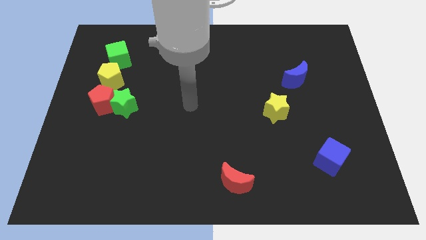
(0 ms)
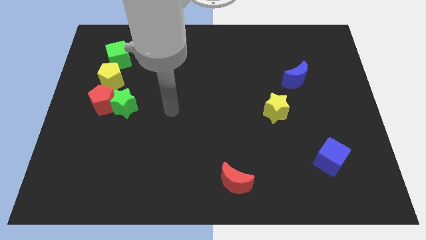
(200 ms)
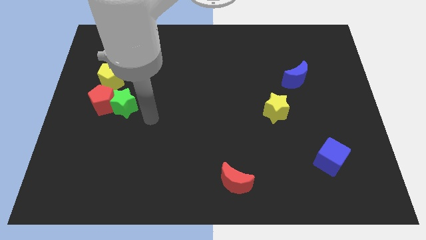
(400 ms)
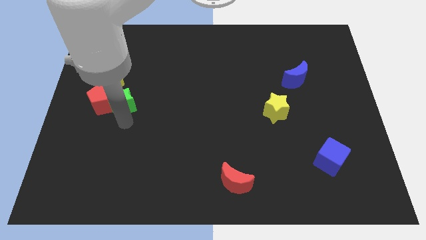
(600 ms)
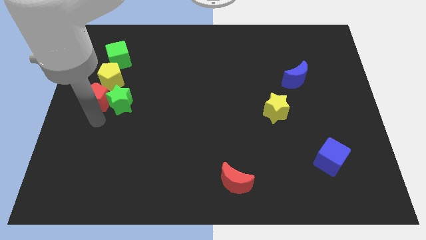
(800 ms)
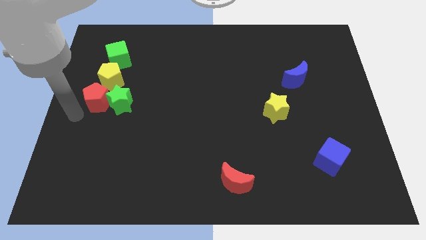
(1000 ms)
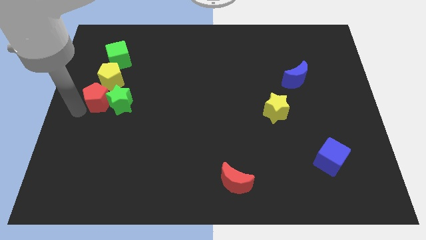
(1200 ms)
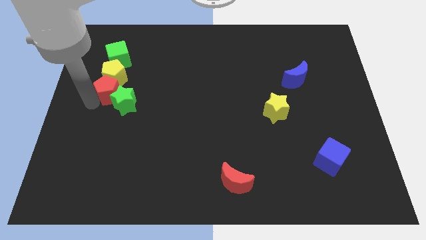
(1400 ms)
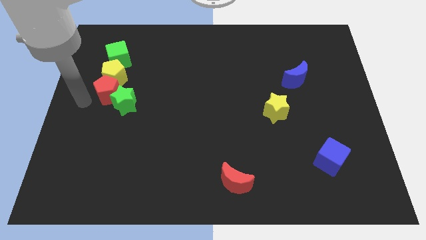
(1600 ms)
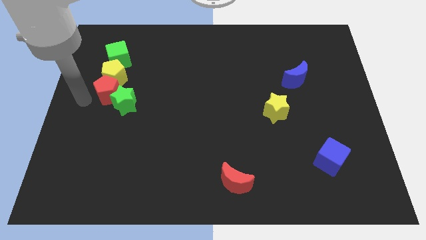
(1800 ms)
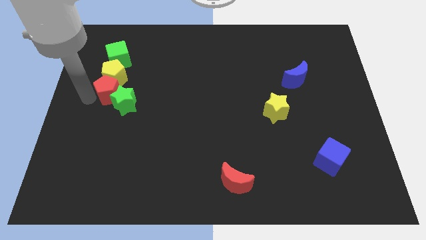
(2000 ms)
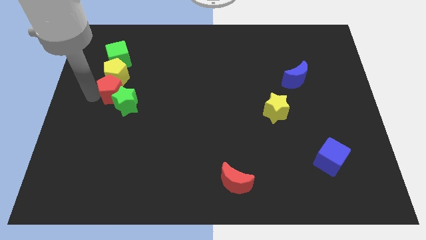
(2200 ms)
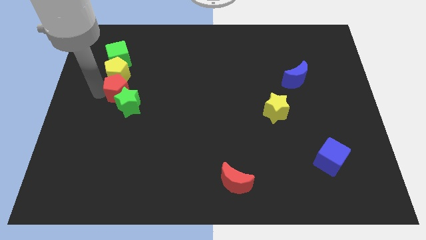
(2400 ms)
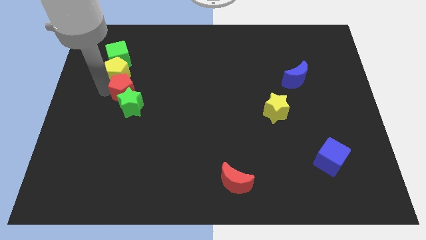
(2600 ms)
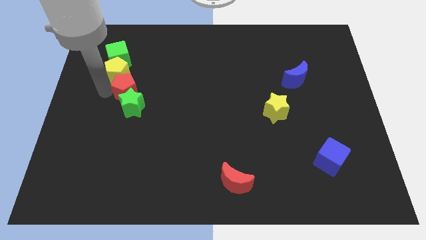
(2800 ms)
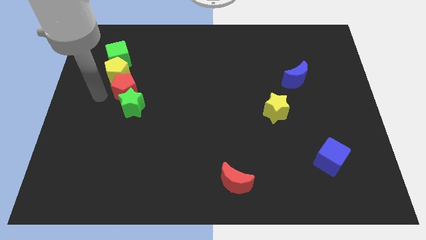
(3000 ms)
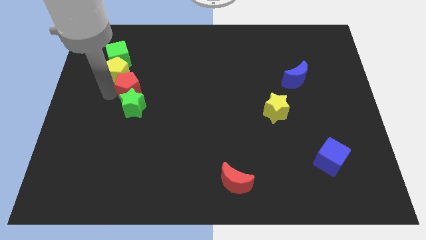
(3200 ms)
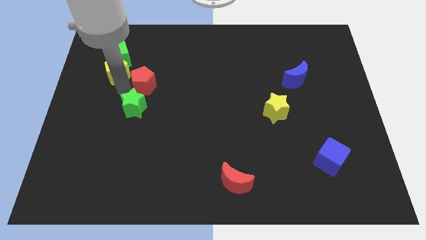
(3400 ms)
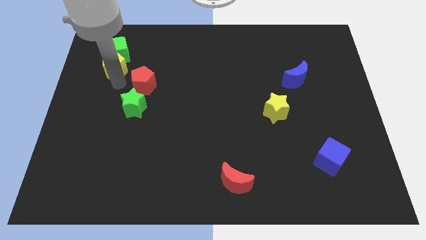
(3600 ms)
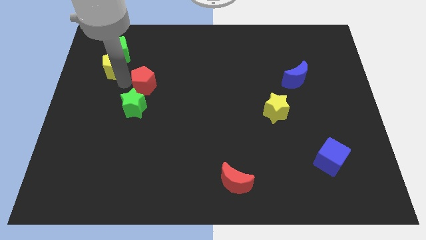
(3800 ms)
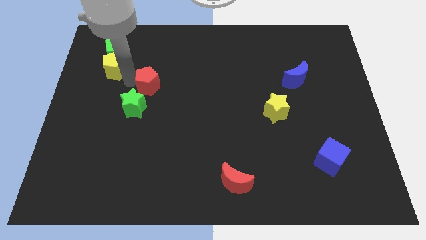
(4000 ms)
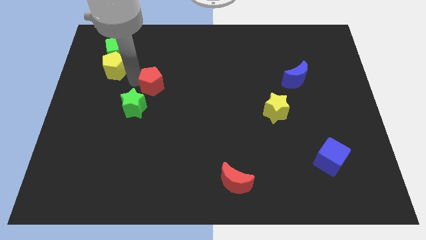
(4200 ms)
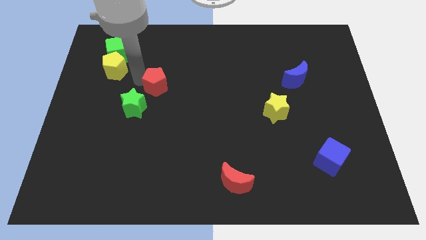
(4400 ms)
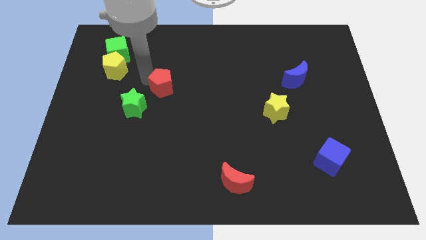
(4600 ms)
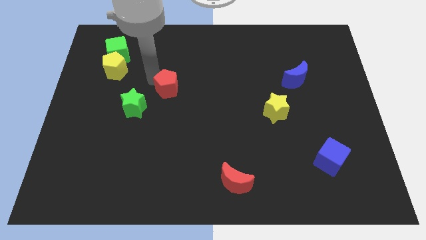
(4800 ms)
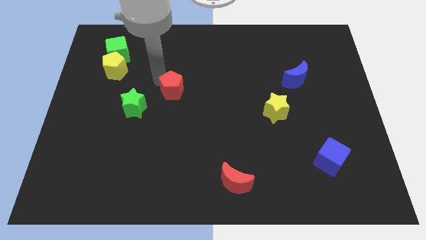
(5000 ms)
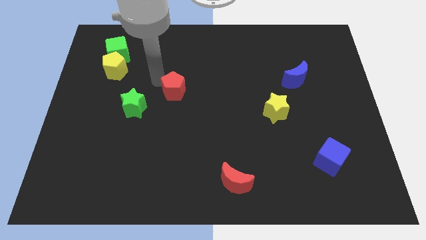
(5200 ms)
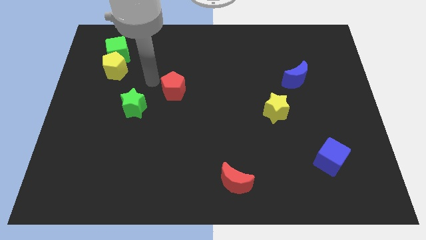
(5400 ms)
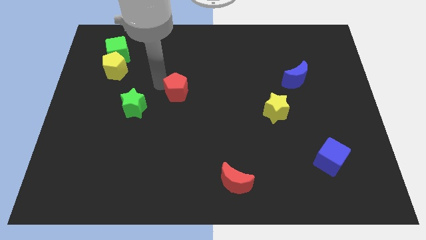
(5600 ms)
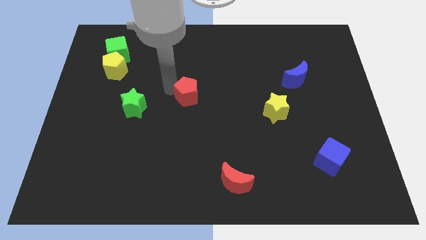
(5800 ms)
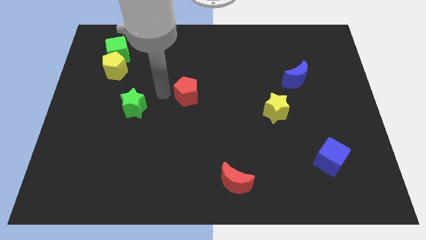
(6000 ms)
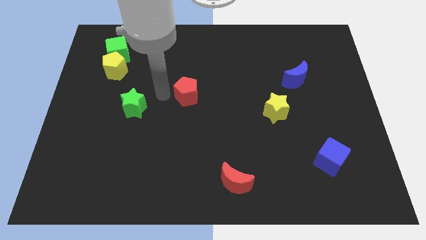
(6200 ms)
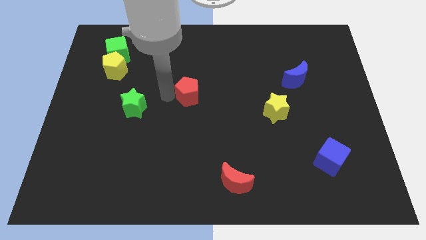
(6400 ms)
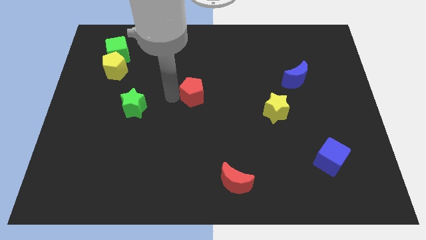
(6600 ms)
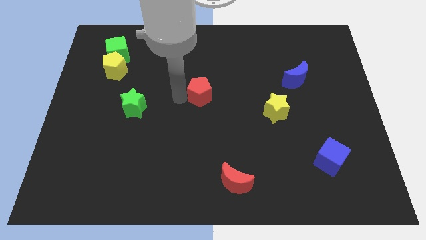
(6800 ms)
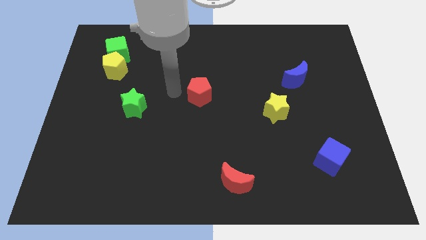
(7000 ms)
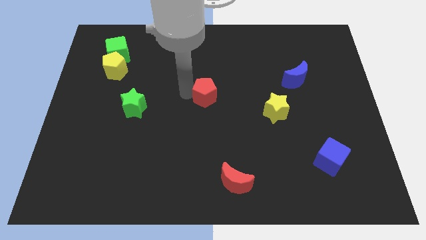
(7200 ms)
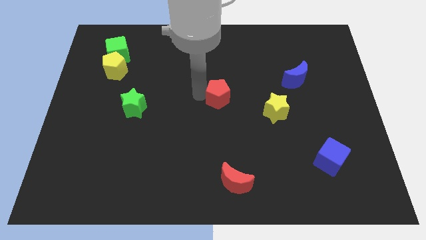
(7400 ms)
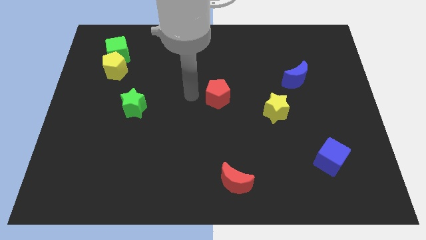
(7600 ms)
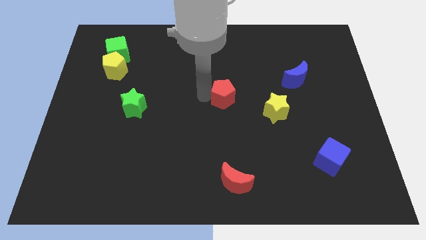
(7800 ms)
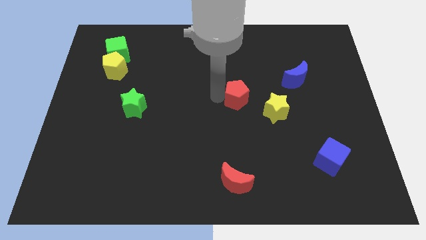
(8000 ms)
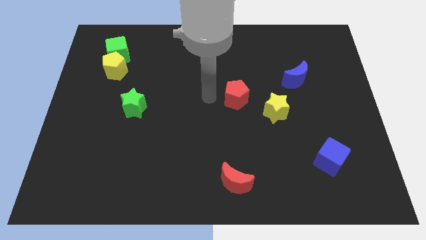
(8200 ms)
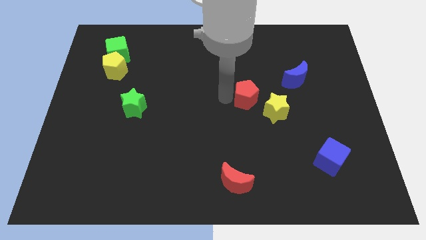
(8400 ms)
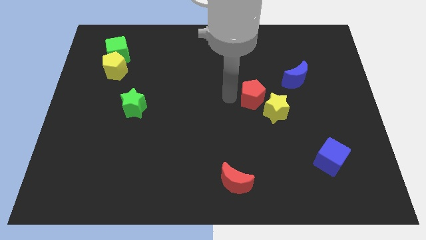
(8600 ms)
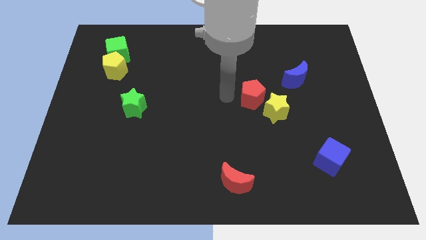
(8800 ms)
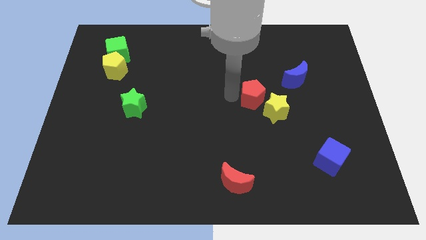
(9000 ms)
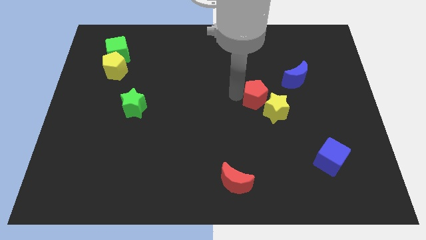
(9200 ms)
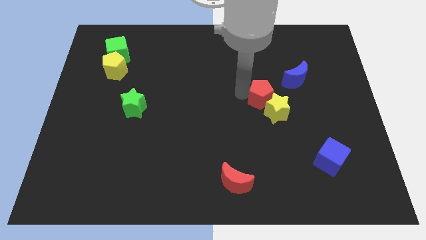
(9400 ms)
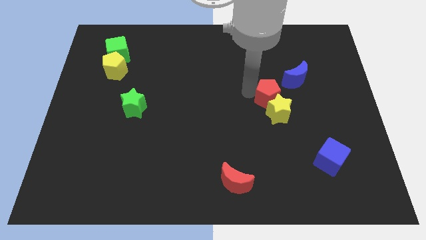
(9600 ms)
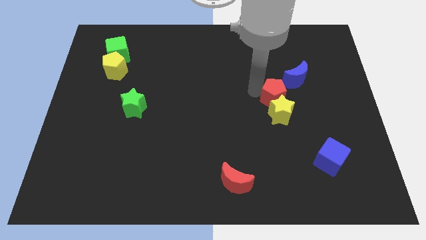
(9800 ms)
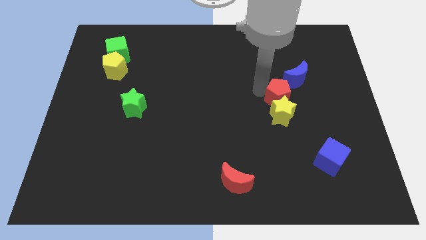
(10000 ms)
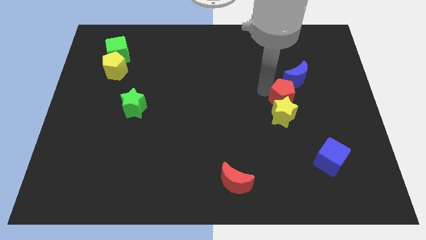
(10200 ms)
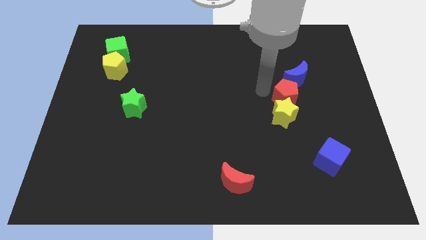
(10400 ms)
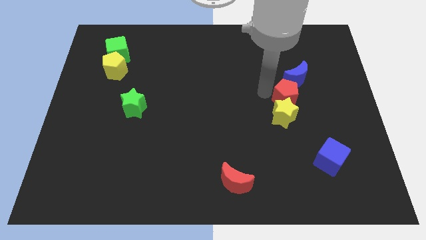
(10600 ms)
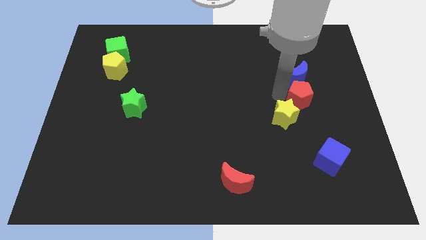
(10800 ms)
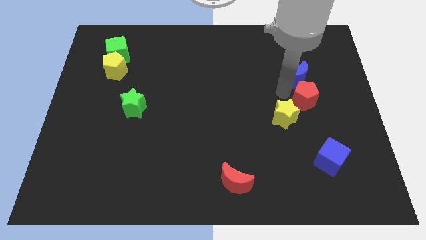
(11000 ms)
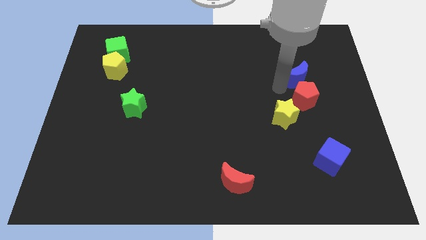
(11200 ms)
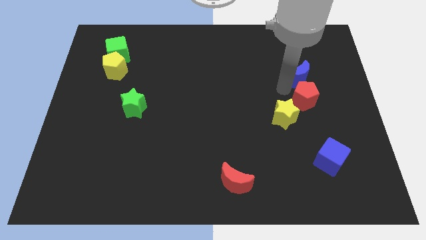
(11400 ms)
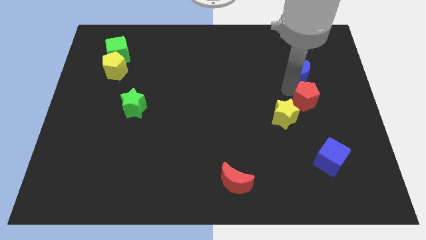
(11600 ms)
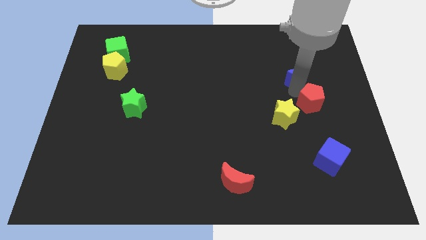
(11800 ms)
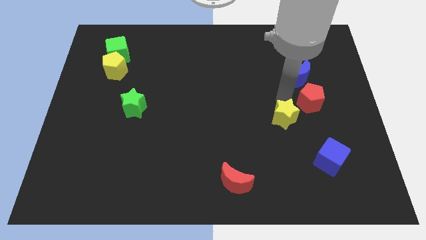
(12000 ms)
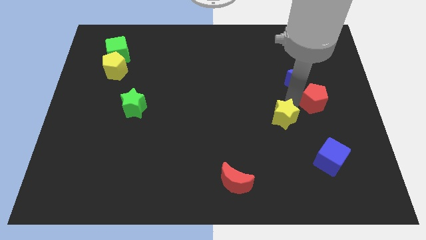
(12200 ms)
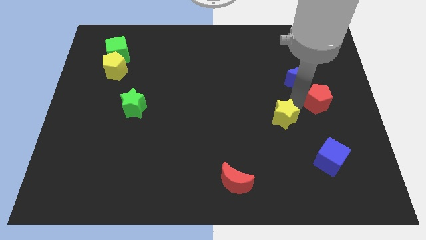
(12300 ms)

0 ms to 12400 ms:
put the red pentagon to the right side

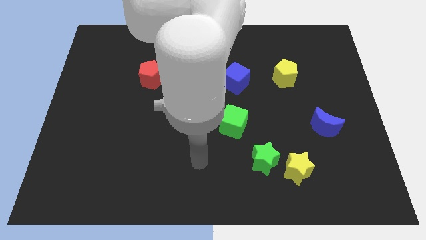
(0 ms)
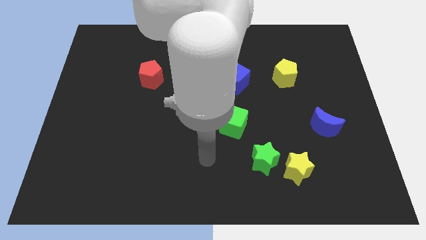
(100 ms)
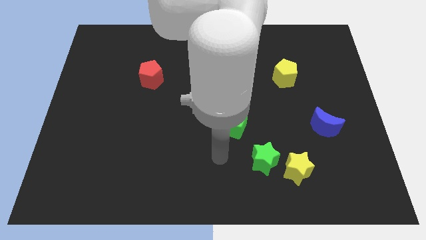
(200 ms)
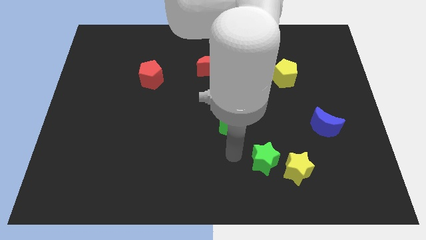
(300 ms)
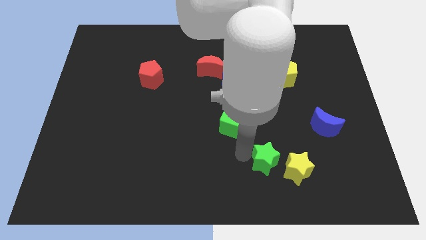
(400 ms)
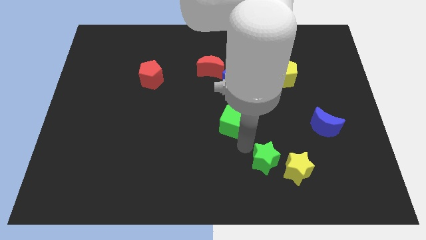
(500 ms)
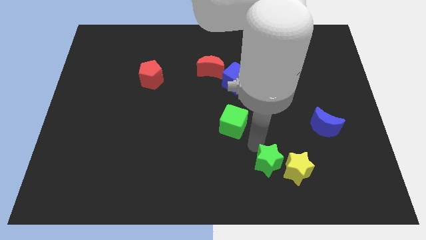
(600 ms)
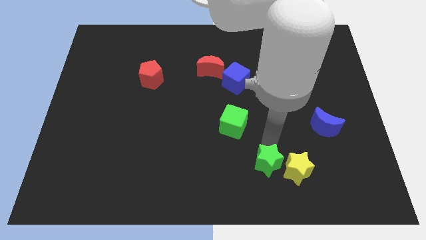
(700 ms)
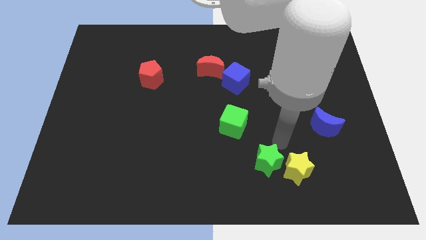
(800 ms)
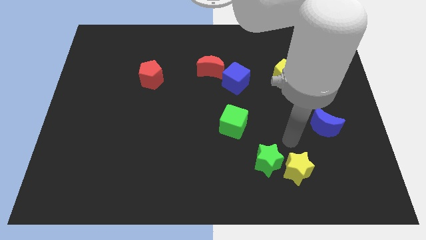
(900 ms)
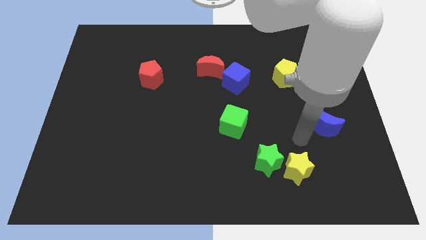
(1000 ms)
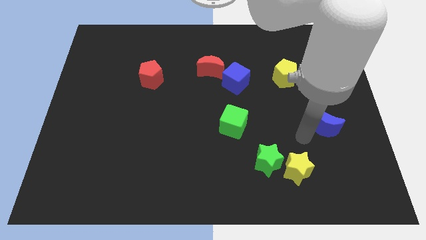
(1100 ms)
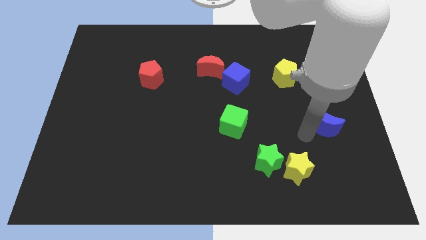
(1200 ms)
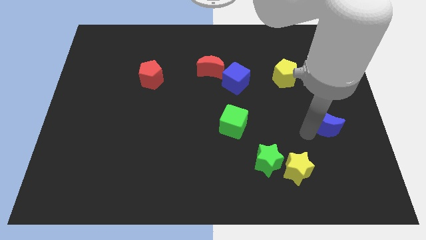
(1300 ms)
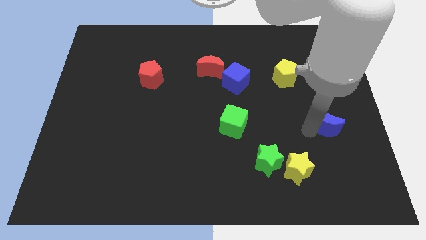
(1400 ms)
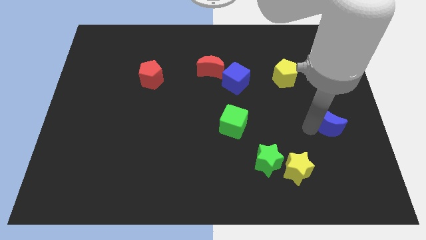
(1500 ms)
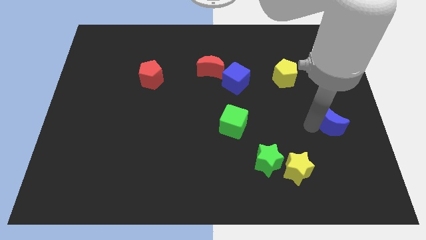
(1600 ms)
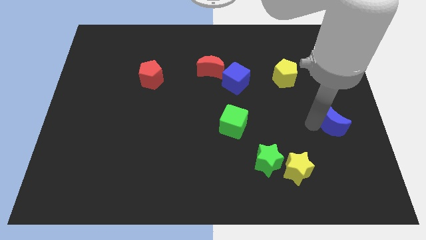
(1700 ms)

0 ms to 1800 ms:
push the blue moon to the center right
